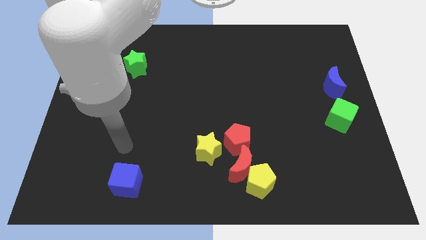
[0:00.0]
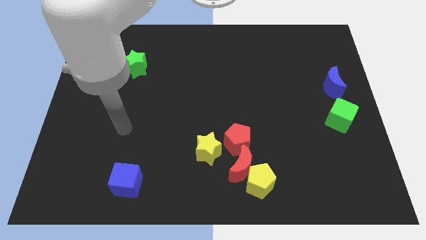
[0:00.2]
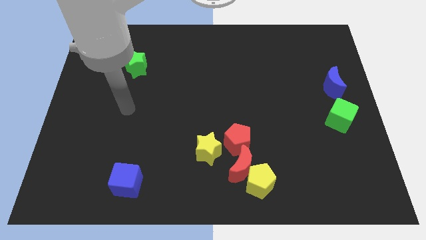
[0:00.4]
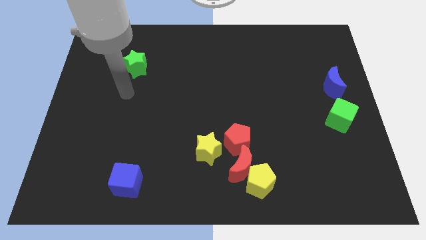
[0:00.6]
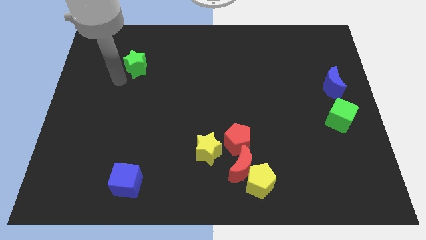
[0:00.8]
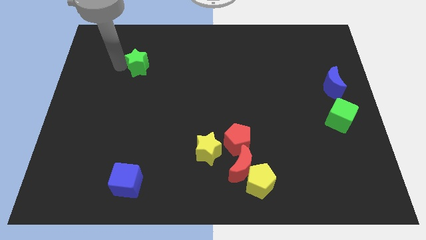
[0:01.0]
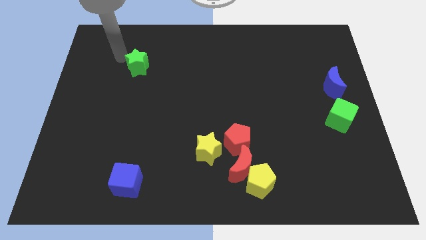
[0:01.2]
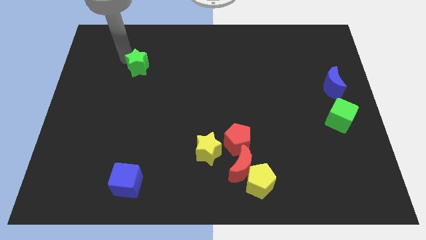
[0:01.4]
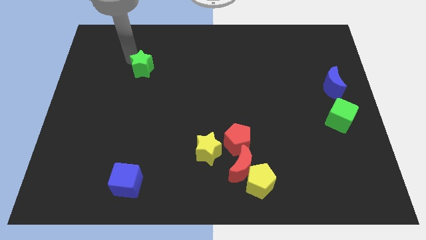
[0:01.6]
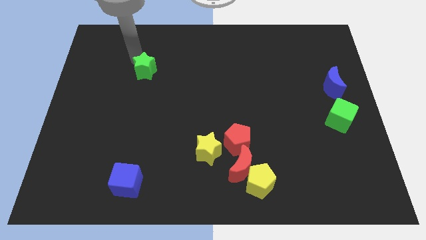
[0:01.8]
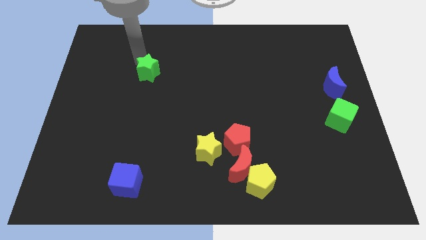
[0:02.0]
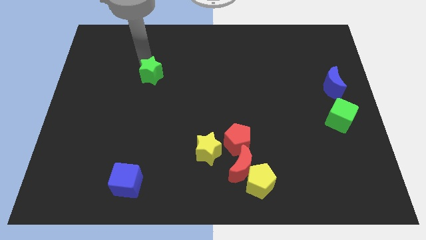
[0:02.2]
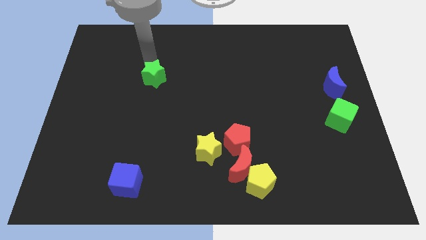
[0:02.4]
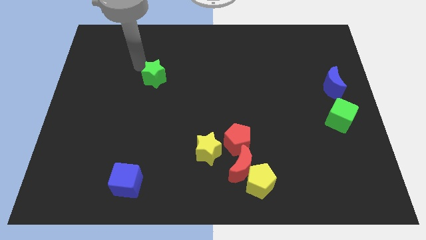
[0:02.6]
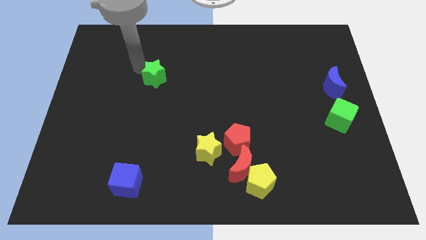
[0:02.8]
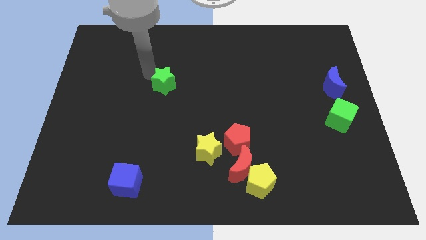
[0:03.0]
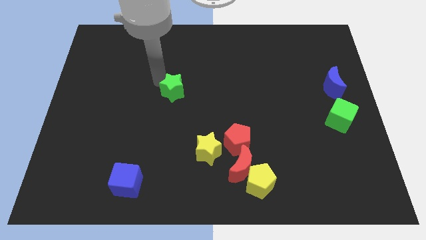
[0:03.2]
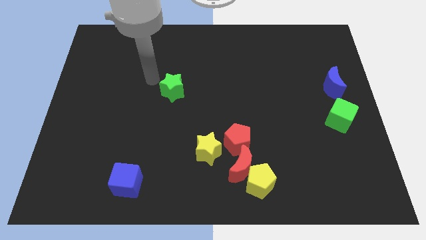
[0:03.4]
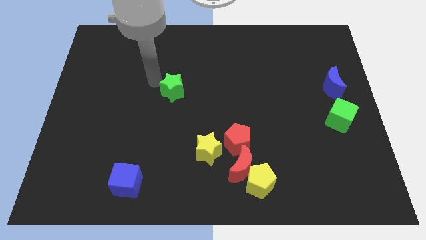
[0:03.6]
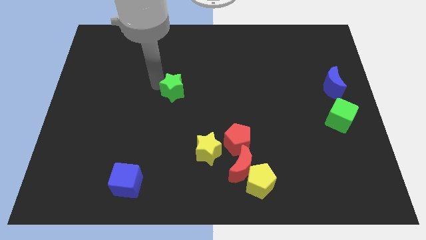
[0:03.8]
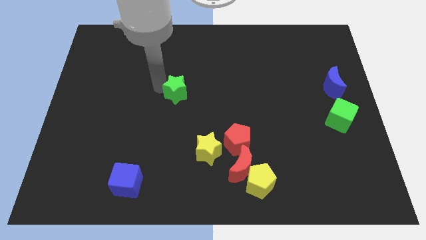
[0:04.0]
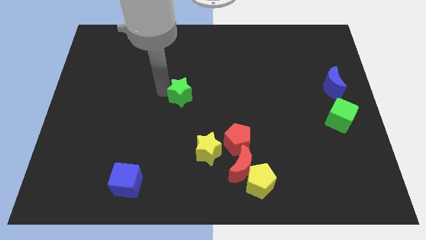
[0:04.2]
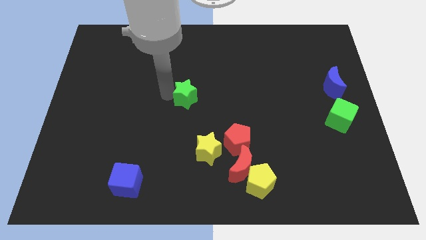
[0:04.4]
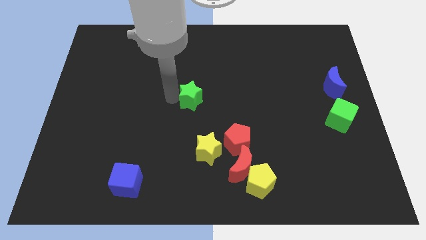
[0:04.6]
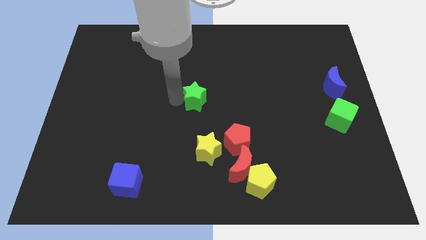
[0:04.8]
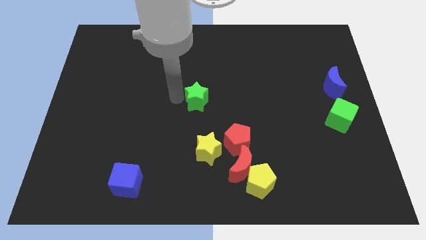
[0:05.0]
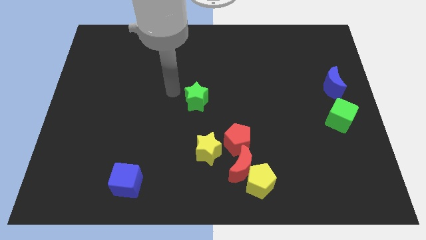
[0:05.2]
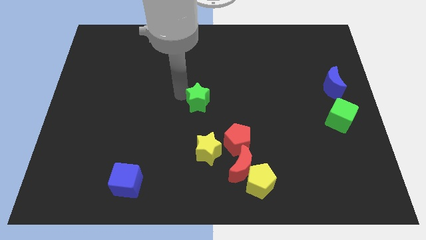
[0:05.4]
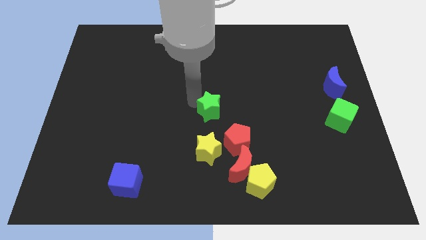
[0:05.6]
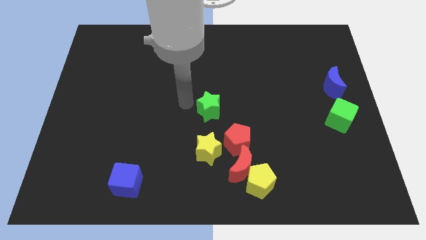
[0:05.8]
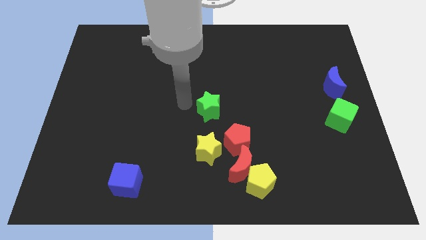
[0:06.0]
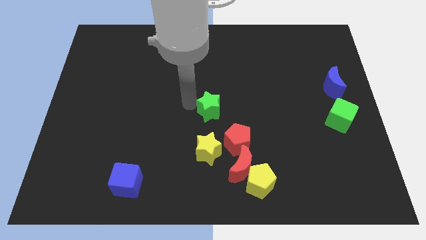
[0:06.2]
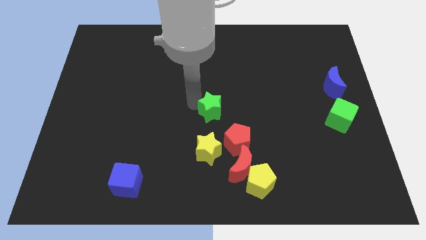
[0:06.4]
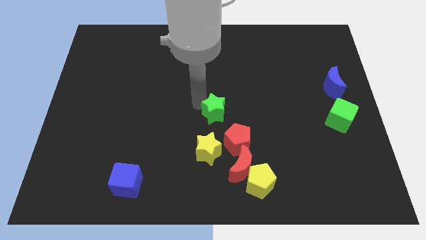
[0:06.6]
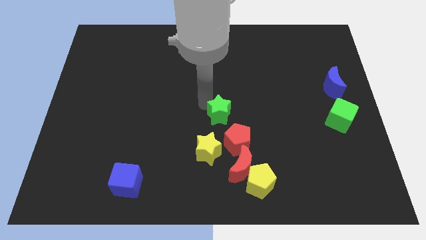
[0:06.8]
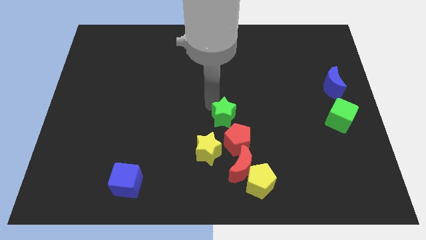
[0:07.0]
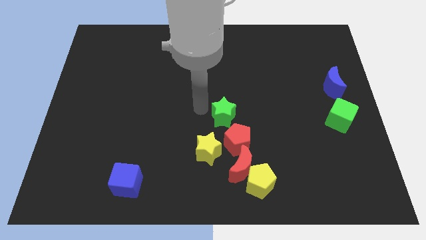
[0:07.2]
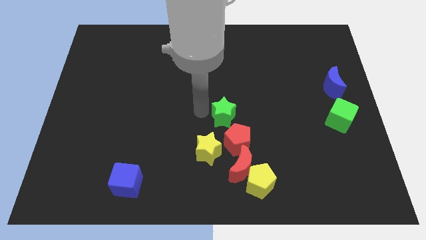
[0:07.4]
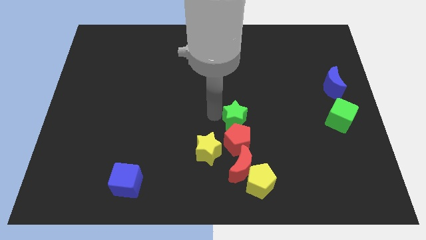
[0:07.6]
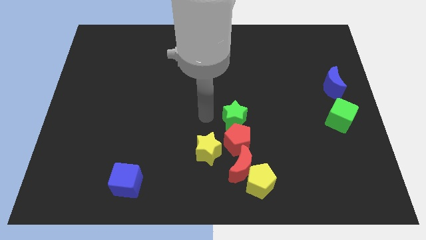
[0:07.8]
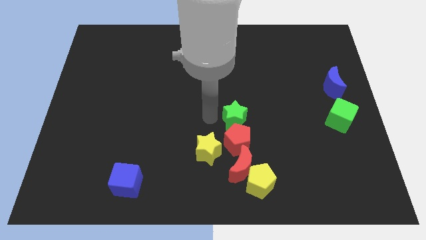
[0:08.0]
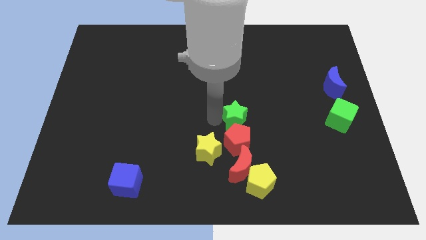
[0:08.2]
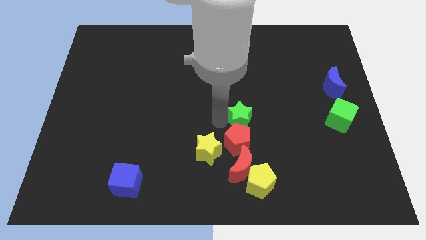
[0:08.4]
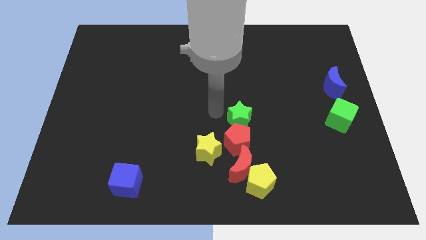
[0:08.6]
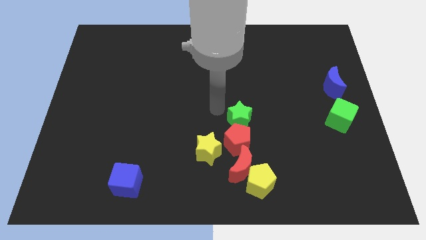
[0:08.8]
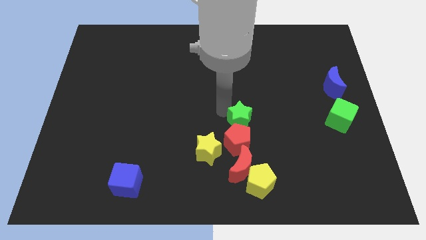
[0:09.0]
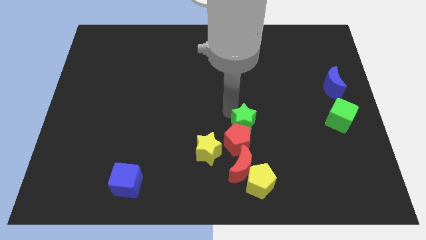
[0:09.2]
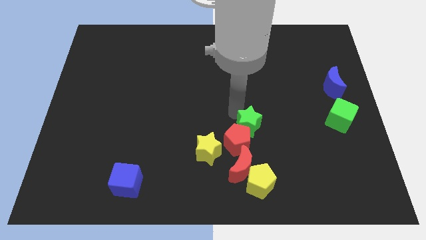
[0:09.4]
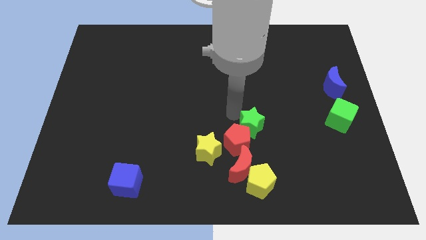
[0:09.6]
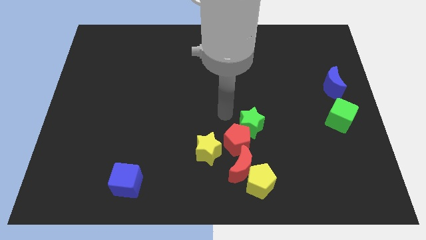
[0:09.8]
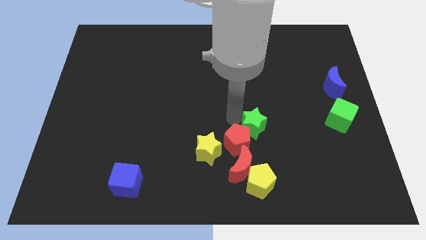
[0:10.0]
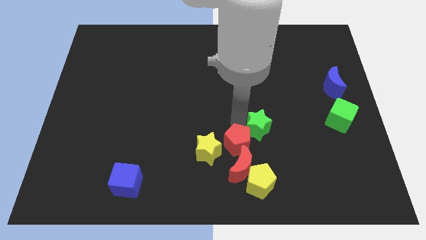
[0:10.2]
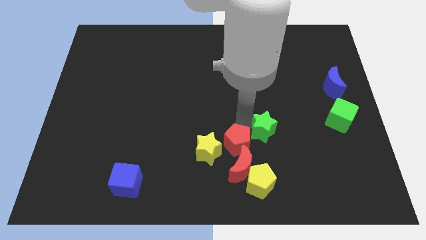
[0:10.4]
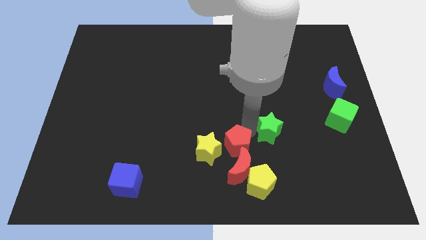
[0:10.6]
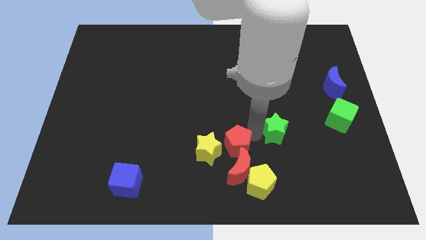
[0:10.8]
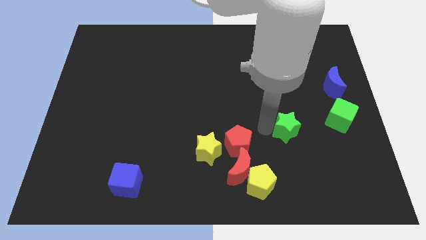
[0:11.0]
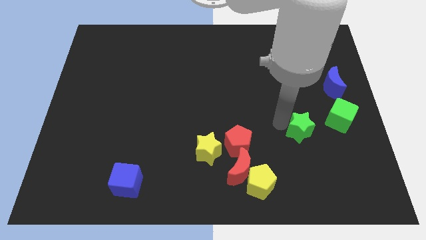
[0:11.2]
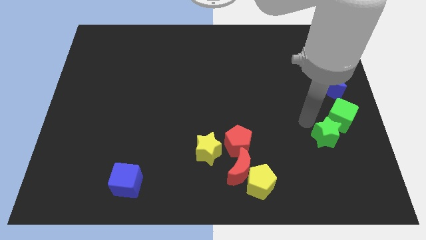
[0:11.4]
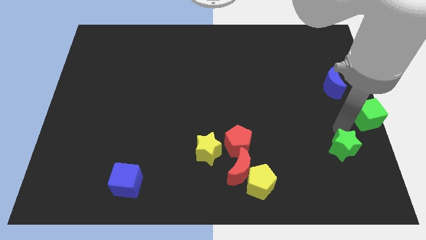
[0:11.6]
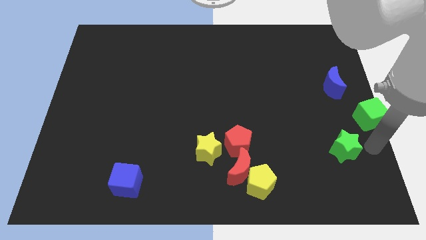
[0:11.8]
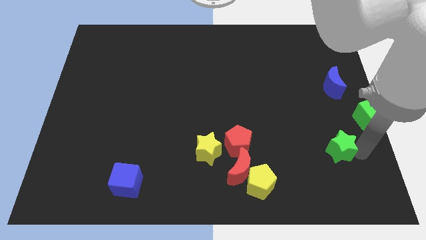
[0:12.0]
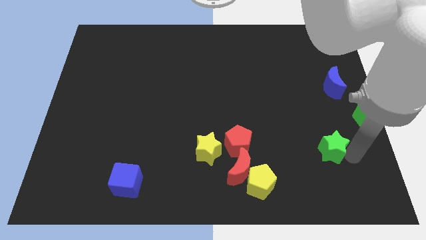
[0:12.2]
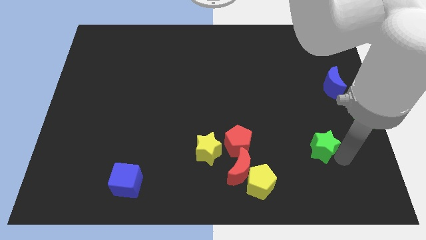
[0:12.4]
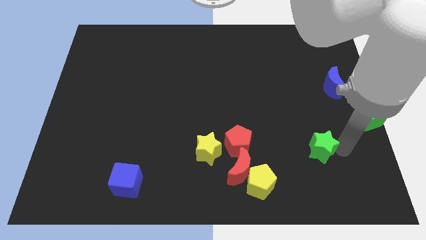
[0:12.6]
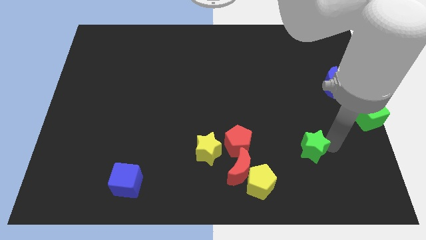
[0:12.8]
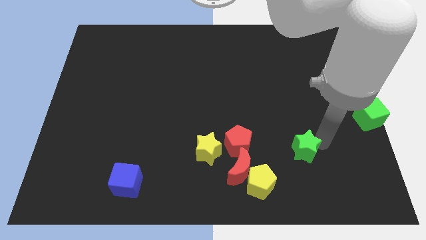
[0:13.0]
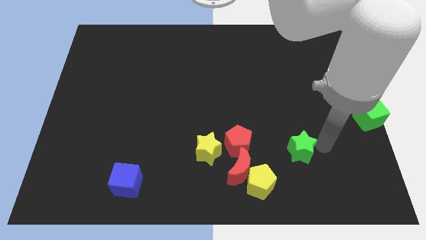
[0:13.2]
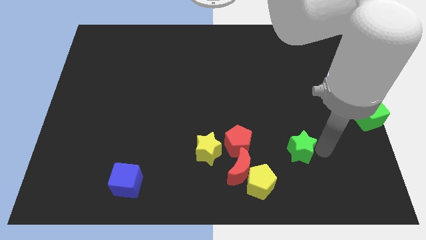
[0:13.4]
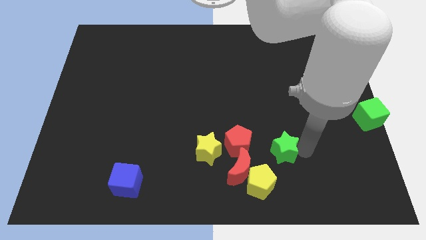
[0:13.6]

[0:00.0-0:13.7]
push the green star just right of the yellow star

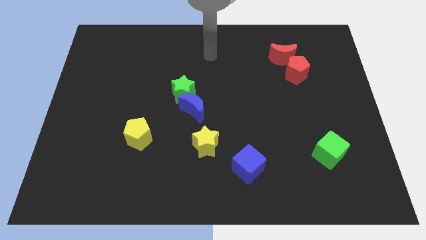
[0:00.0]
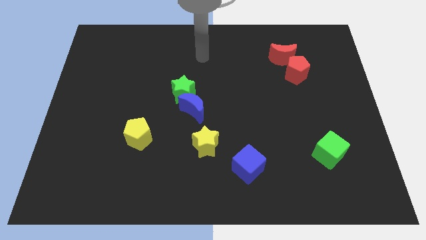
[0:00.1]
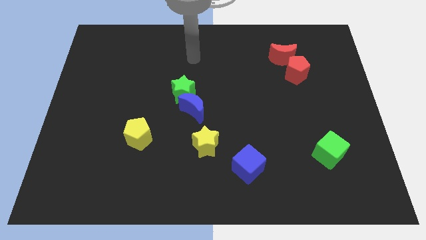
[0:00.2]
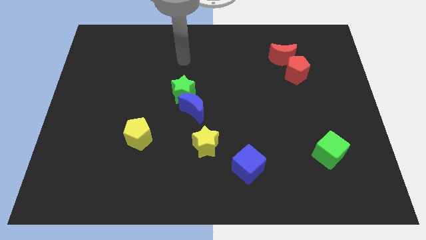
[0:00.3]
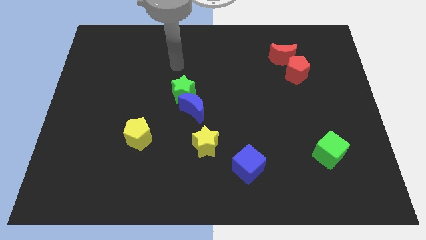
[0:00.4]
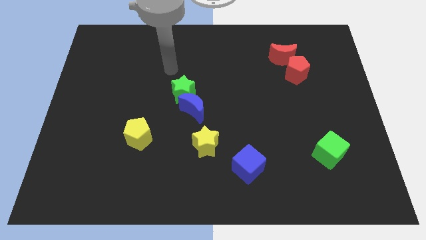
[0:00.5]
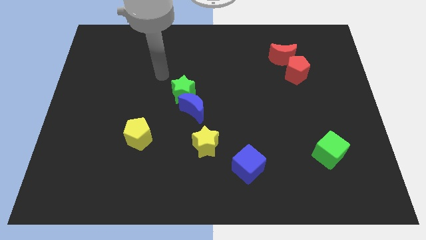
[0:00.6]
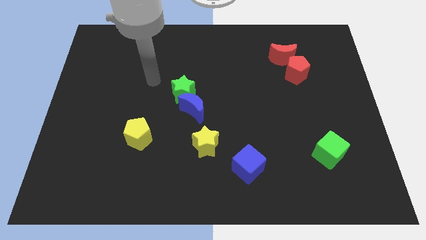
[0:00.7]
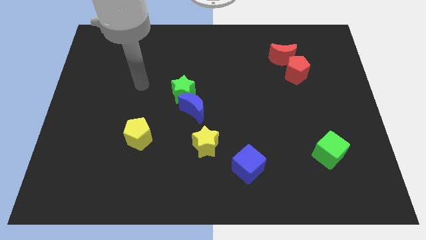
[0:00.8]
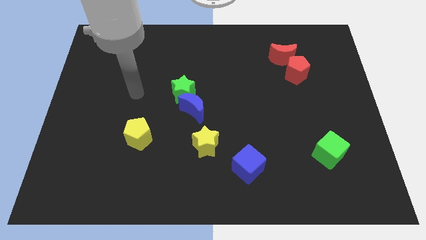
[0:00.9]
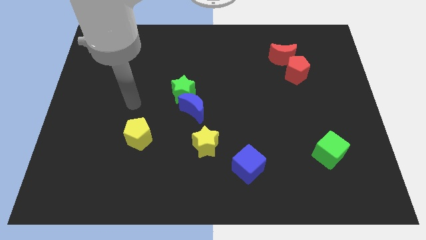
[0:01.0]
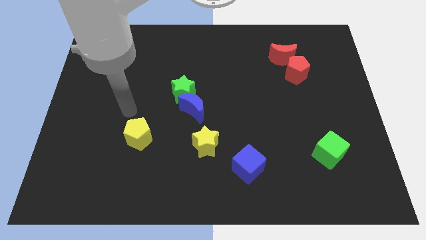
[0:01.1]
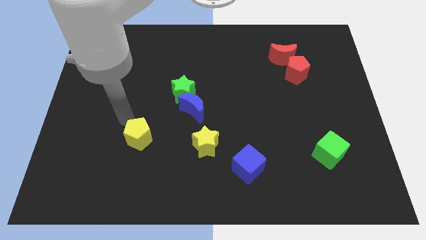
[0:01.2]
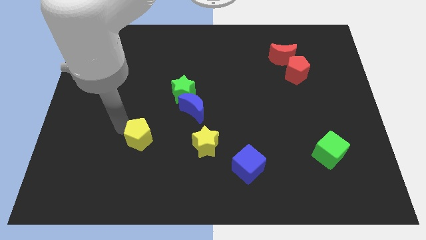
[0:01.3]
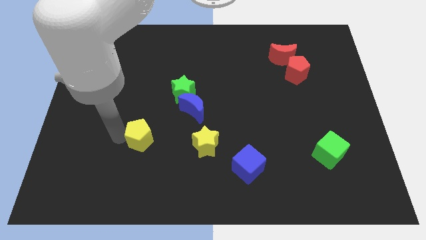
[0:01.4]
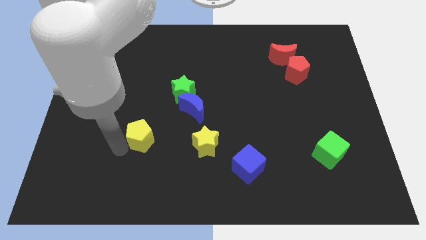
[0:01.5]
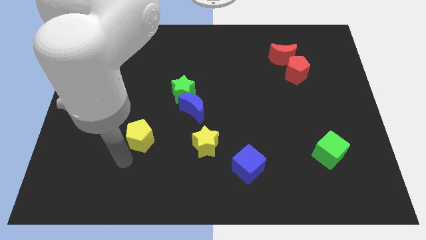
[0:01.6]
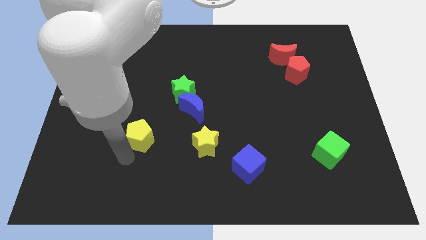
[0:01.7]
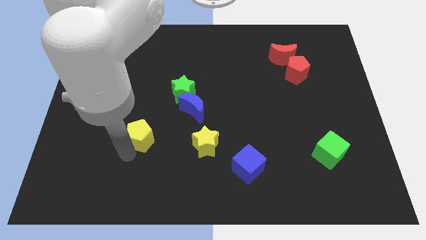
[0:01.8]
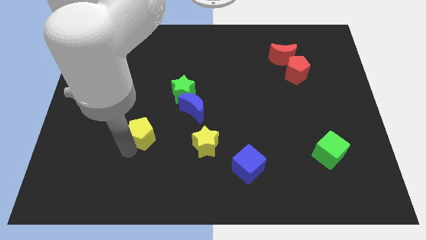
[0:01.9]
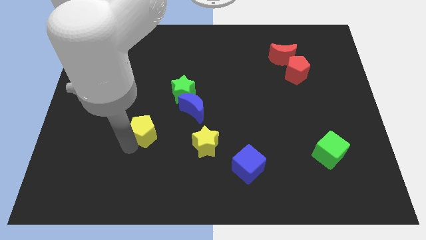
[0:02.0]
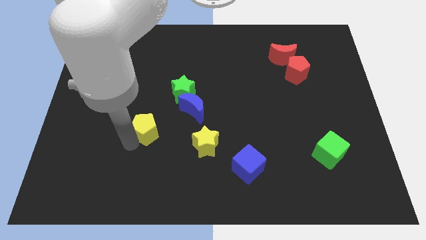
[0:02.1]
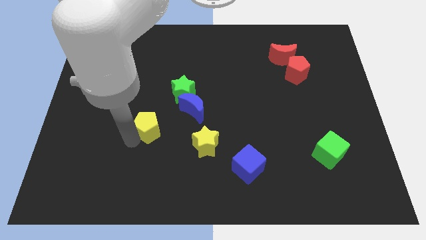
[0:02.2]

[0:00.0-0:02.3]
slide the yellow pentagon to the bottom left side of the green star
